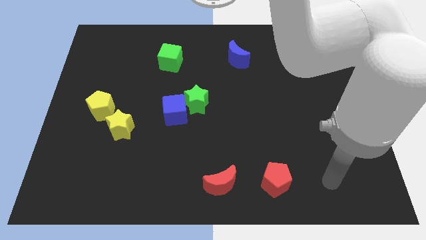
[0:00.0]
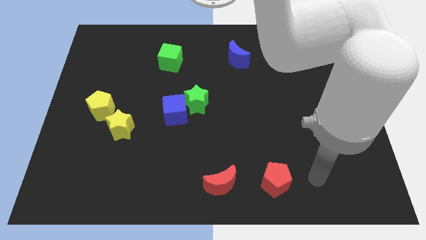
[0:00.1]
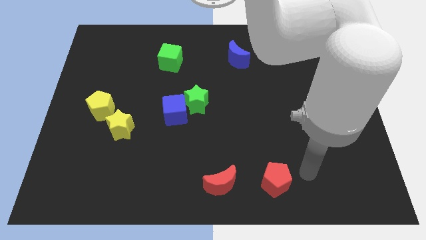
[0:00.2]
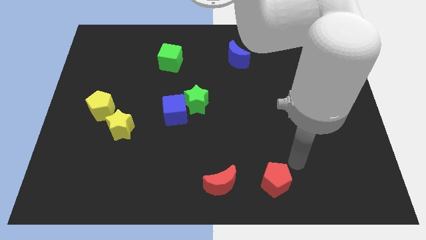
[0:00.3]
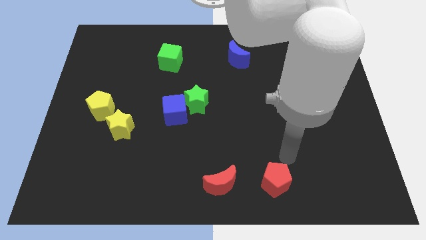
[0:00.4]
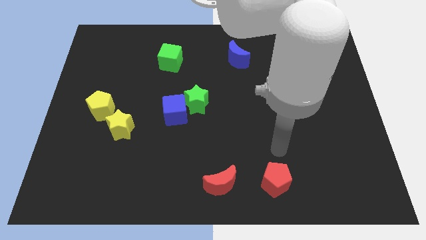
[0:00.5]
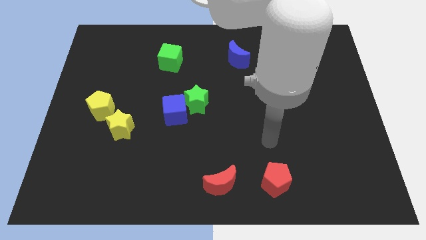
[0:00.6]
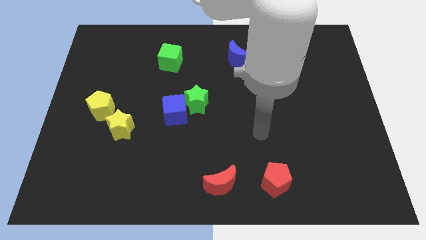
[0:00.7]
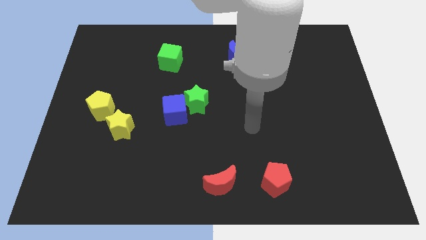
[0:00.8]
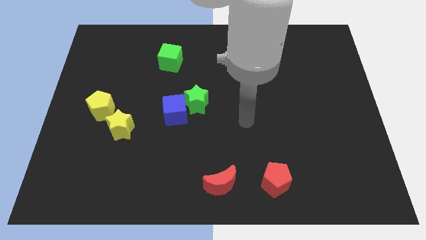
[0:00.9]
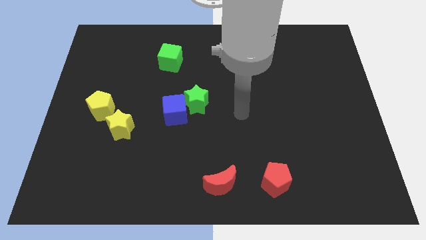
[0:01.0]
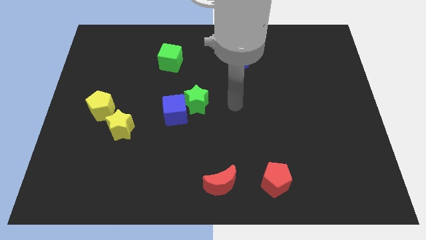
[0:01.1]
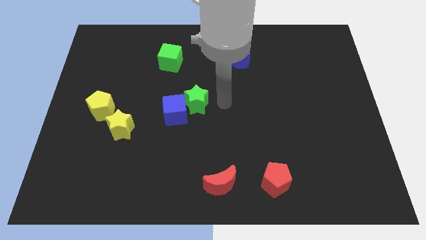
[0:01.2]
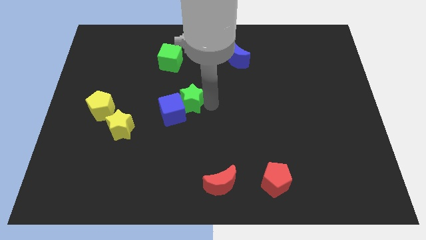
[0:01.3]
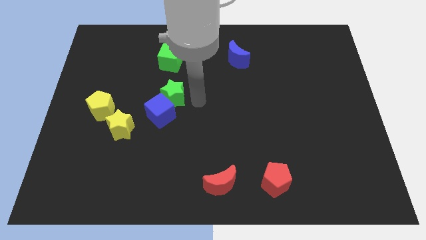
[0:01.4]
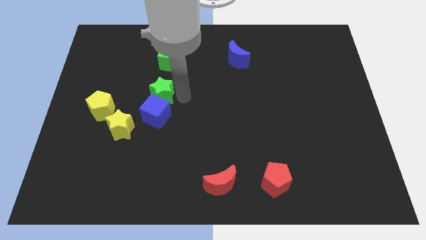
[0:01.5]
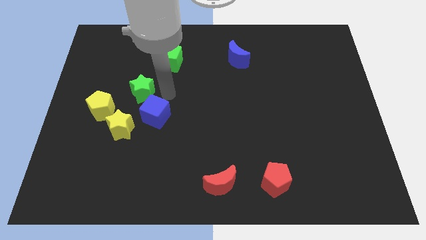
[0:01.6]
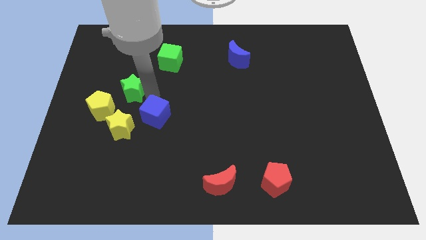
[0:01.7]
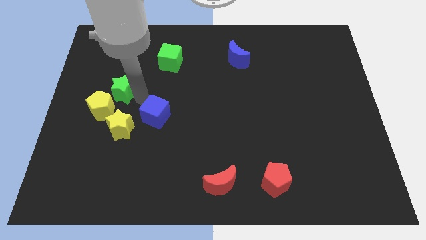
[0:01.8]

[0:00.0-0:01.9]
pull the blue cube apart from the green star

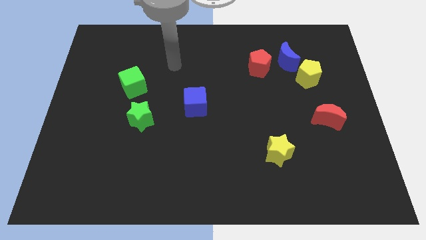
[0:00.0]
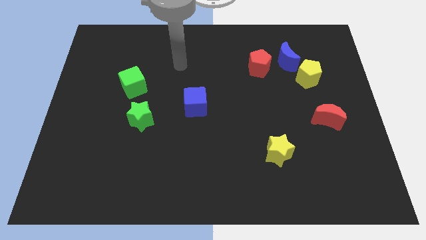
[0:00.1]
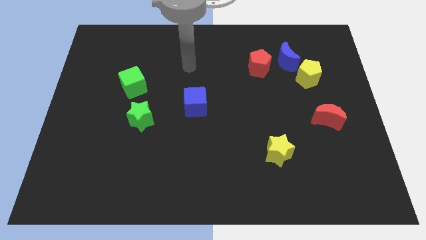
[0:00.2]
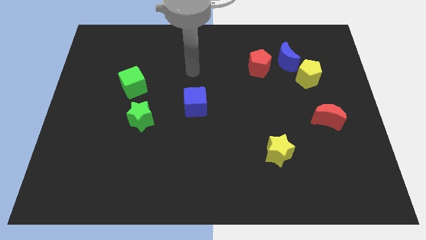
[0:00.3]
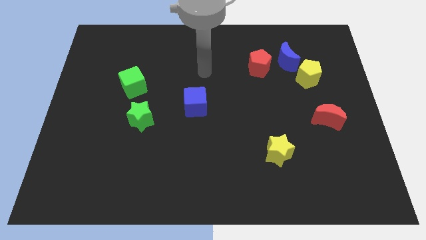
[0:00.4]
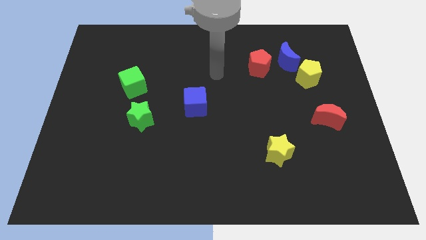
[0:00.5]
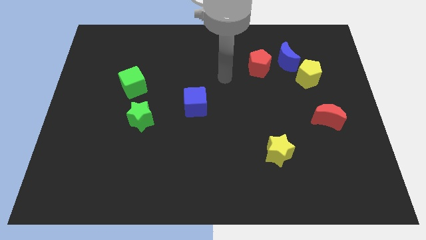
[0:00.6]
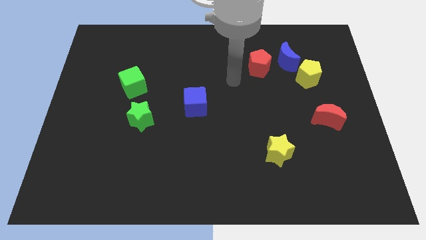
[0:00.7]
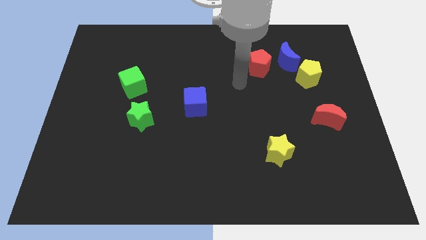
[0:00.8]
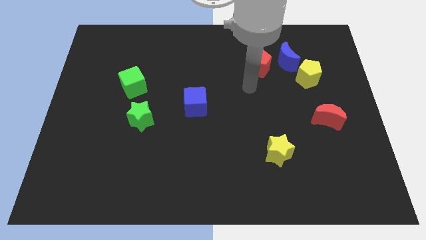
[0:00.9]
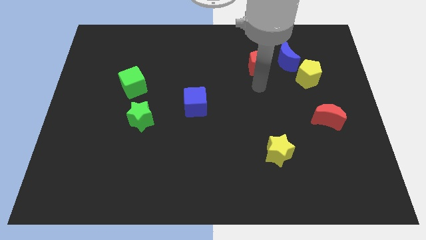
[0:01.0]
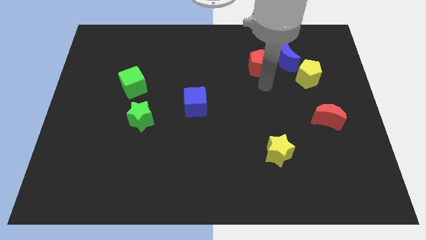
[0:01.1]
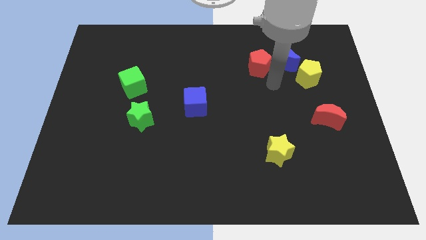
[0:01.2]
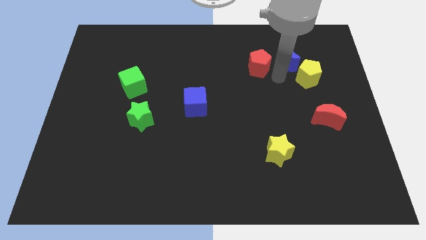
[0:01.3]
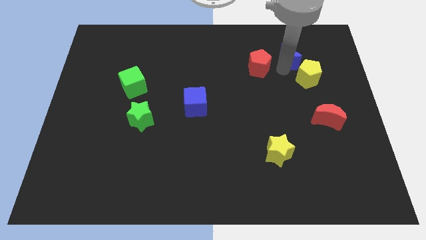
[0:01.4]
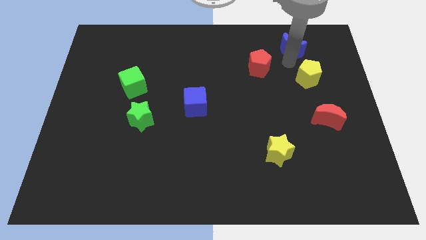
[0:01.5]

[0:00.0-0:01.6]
move the yellow pentagon away from the blue moon

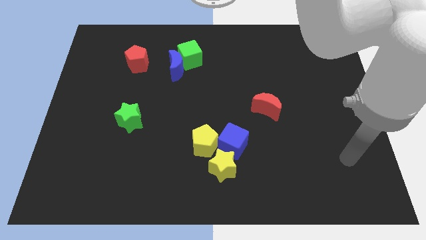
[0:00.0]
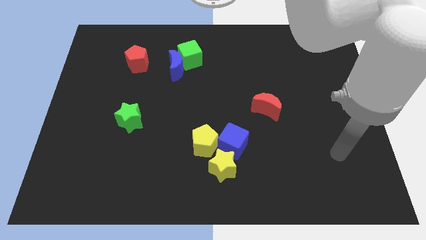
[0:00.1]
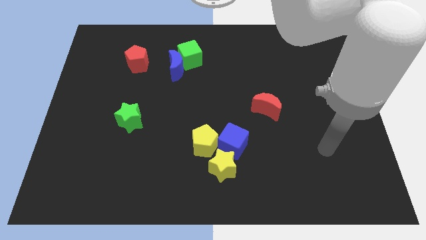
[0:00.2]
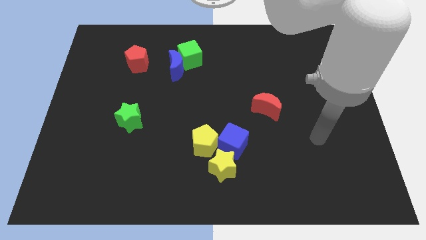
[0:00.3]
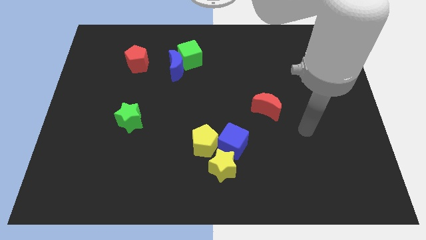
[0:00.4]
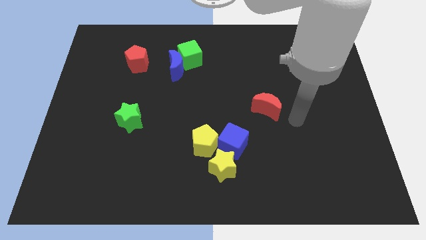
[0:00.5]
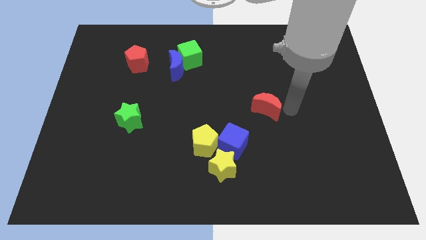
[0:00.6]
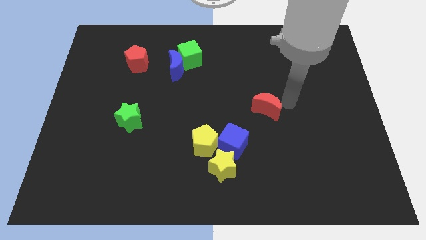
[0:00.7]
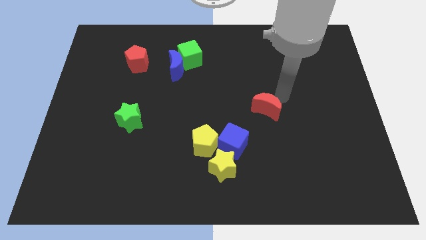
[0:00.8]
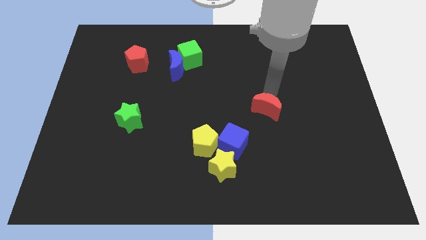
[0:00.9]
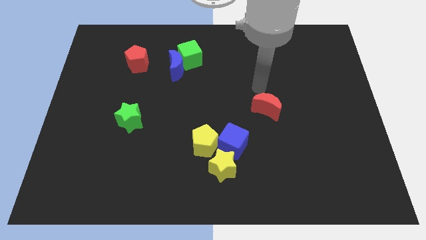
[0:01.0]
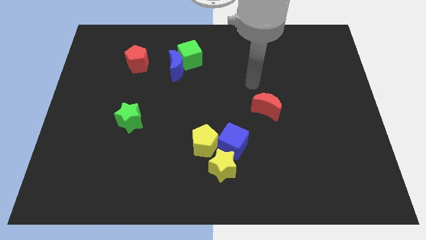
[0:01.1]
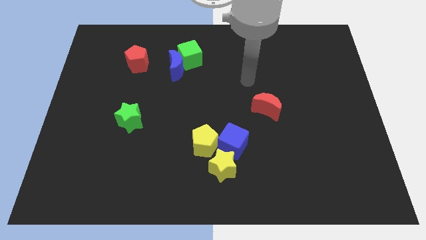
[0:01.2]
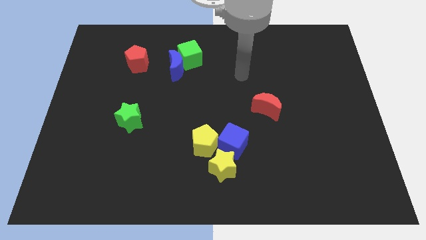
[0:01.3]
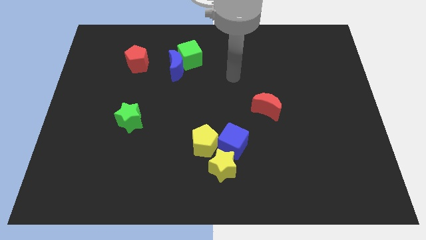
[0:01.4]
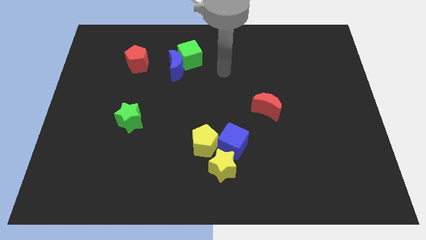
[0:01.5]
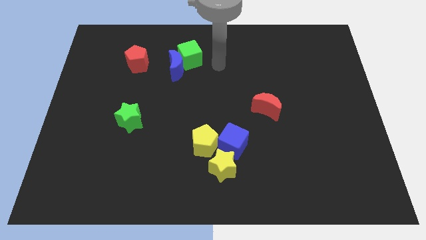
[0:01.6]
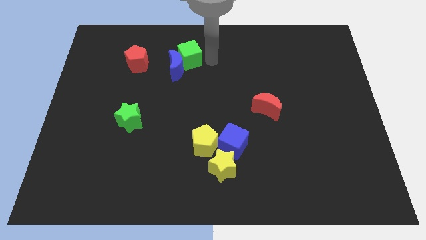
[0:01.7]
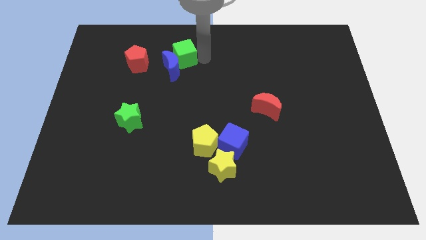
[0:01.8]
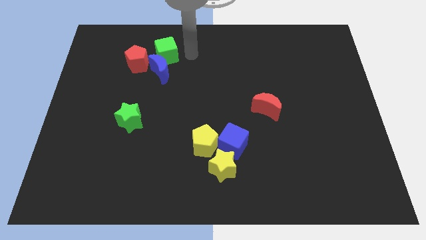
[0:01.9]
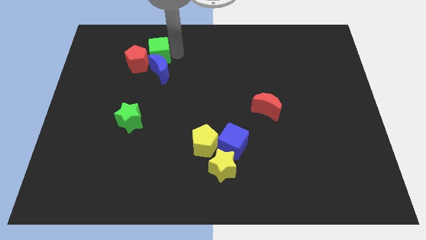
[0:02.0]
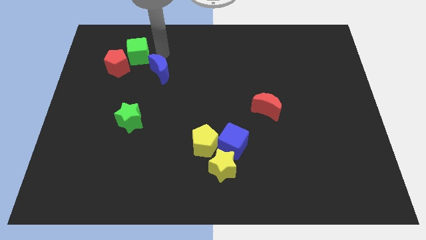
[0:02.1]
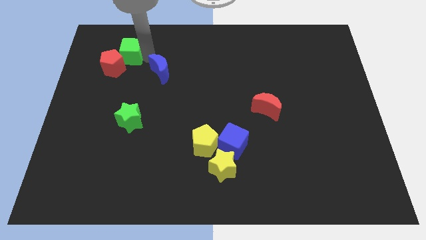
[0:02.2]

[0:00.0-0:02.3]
separate the blue moon from the green cube

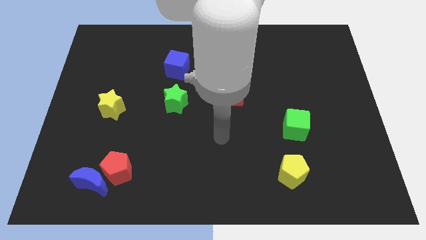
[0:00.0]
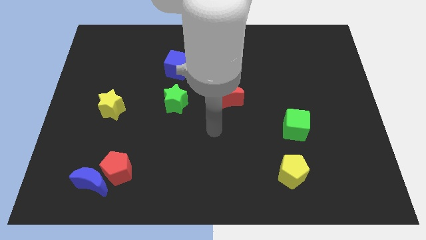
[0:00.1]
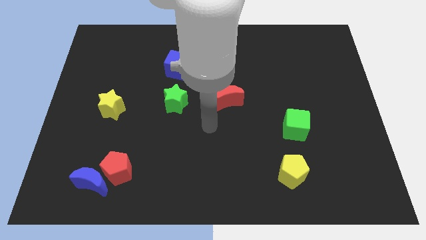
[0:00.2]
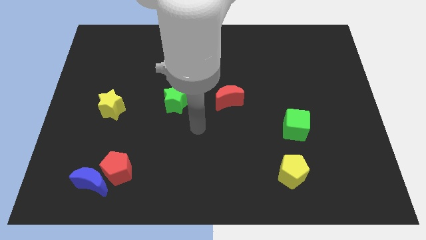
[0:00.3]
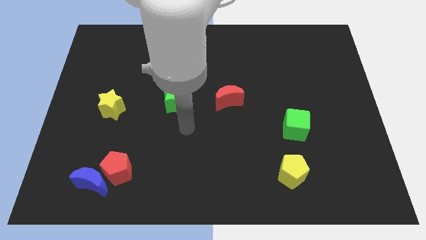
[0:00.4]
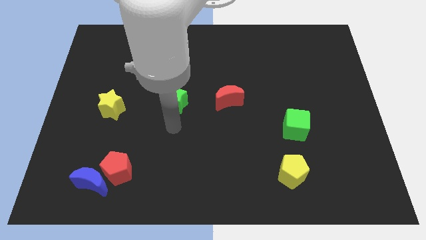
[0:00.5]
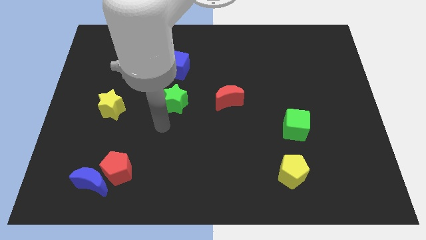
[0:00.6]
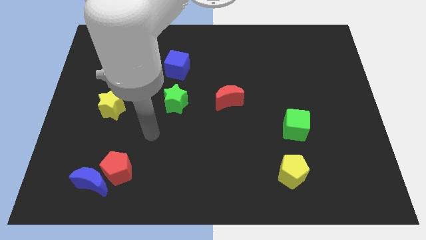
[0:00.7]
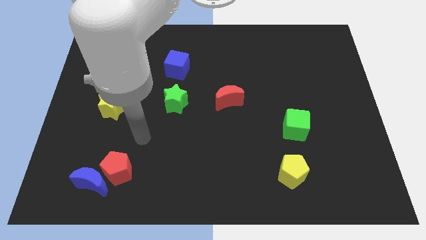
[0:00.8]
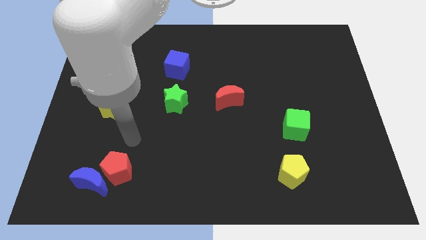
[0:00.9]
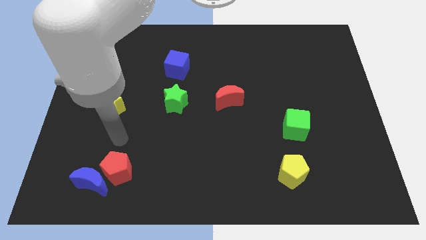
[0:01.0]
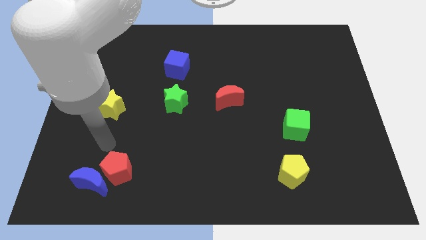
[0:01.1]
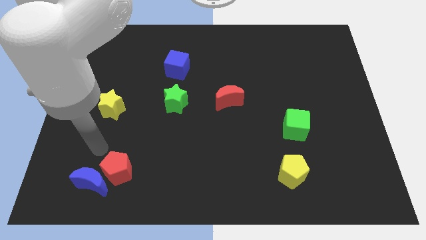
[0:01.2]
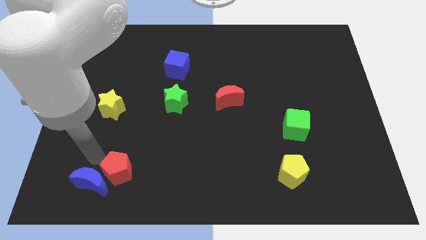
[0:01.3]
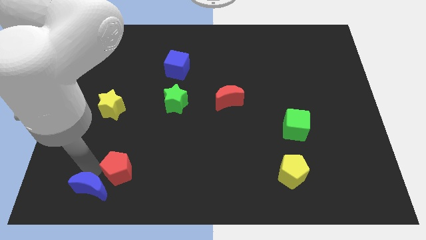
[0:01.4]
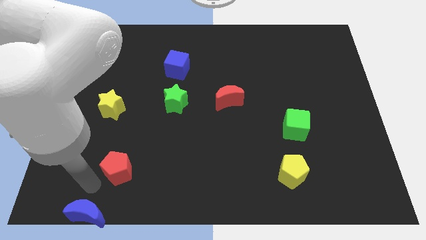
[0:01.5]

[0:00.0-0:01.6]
pull the red pentagon apart from the blue moon

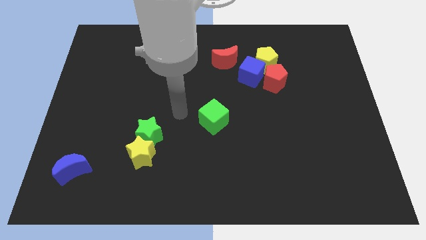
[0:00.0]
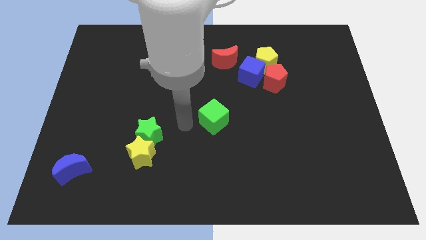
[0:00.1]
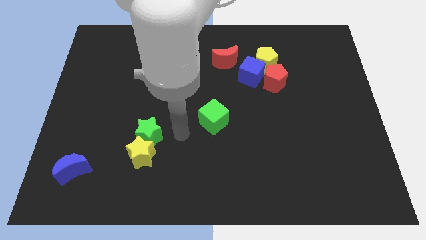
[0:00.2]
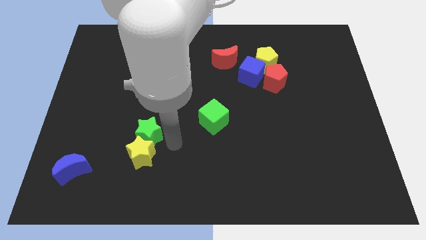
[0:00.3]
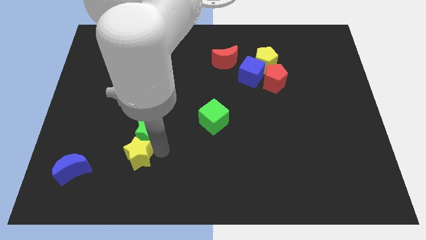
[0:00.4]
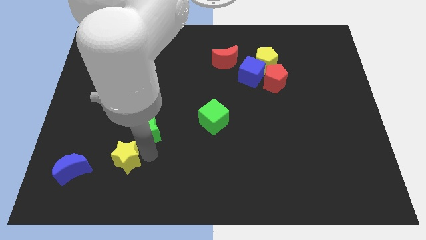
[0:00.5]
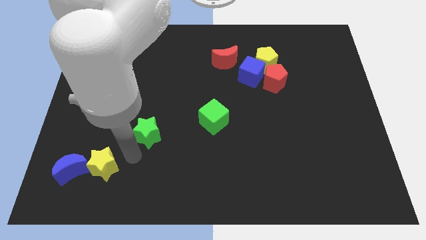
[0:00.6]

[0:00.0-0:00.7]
separate the green star from the yellow star

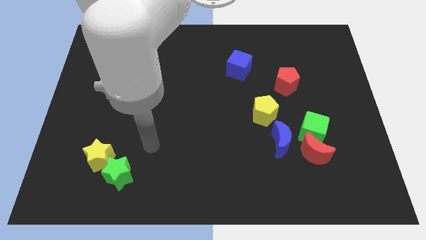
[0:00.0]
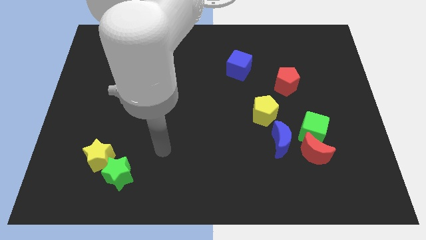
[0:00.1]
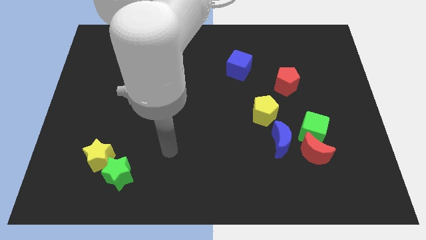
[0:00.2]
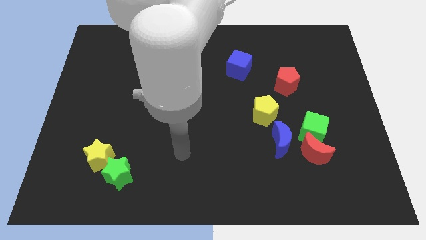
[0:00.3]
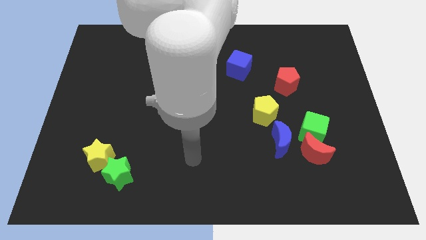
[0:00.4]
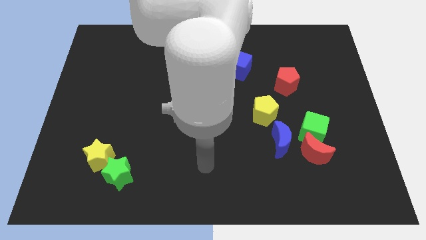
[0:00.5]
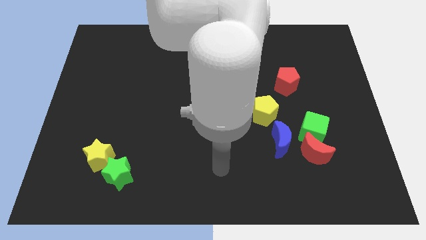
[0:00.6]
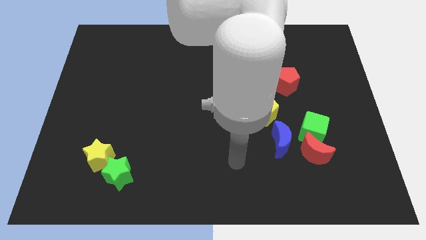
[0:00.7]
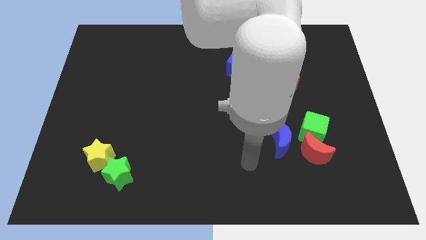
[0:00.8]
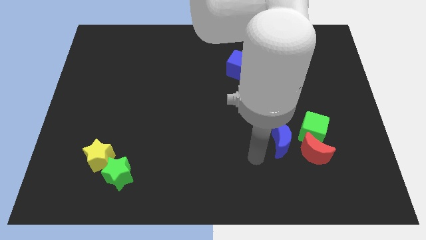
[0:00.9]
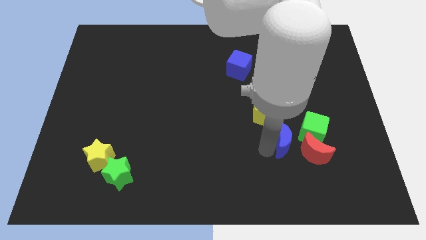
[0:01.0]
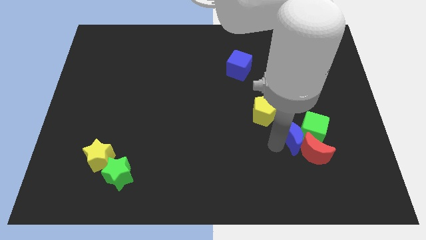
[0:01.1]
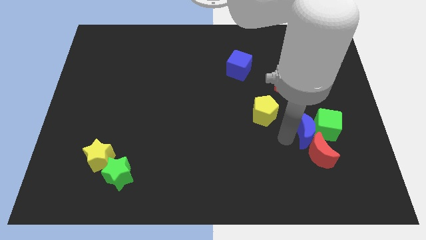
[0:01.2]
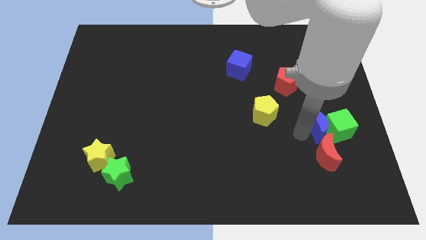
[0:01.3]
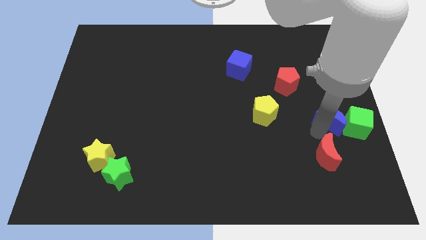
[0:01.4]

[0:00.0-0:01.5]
move the red moon away from the green cube and blue moon
